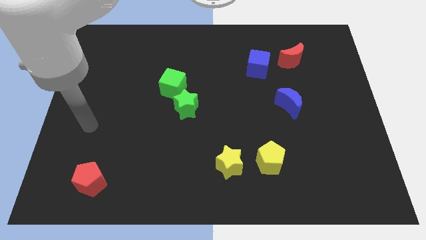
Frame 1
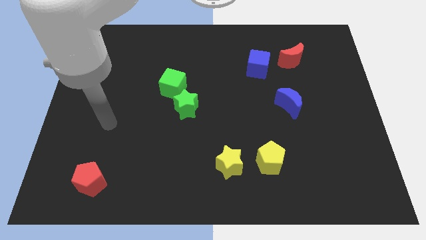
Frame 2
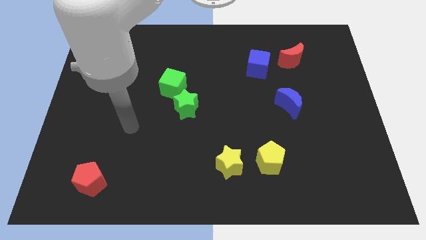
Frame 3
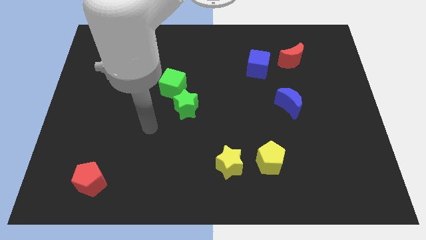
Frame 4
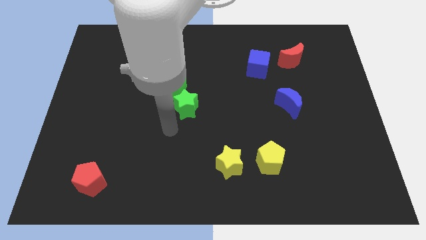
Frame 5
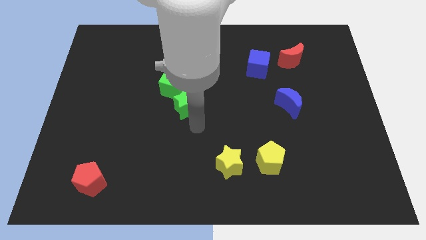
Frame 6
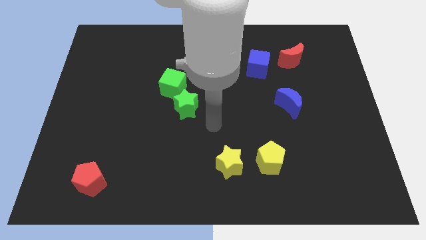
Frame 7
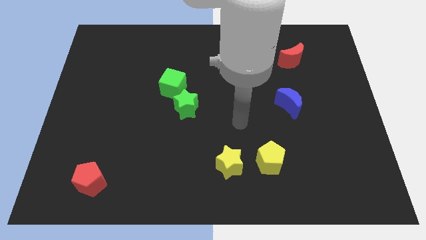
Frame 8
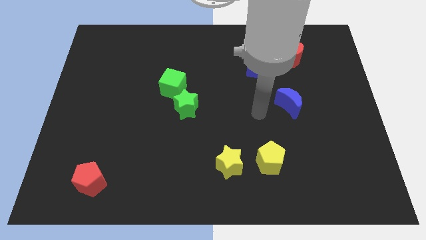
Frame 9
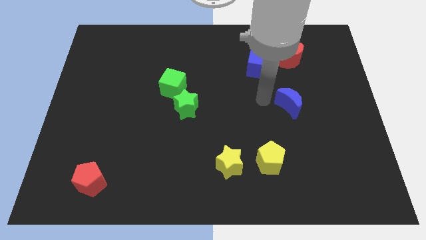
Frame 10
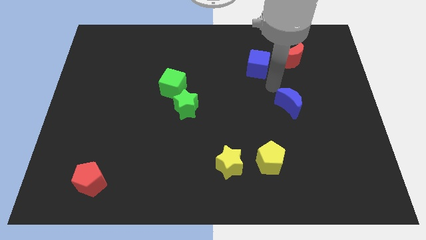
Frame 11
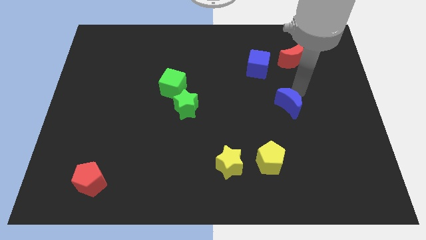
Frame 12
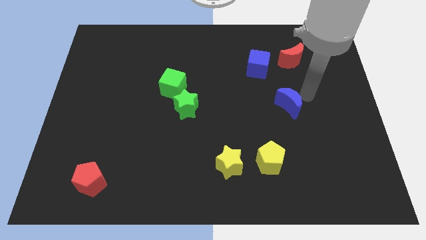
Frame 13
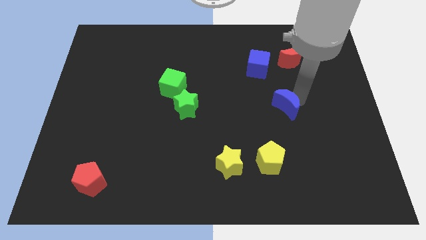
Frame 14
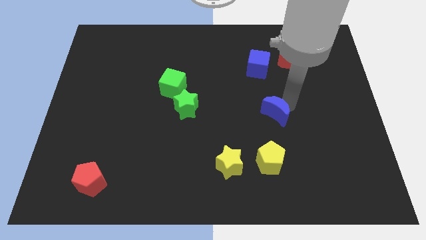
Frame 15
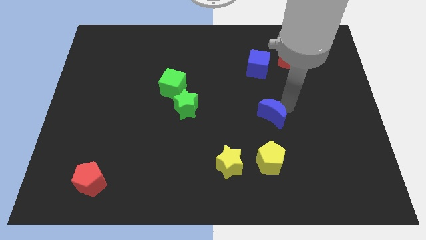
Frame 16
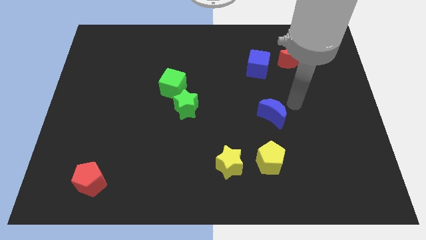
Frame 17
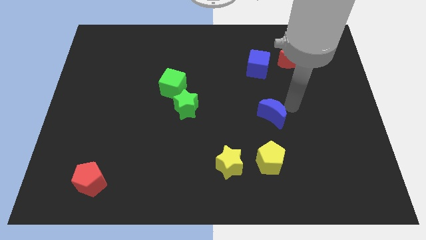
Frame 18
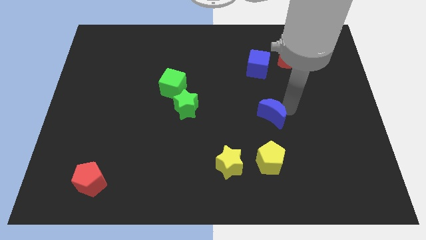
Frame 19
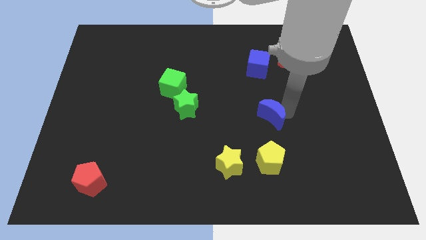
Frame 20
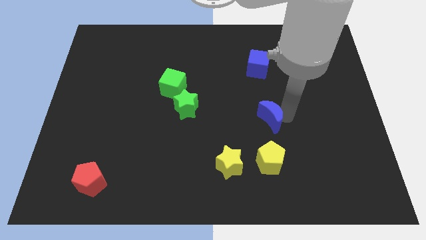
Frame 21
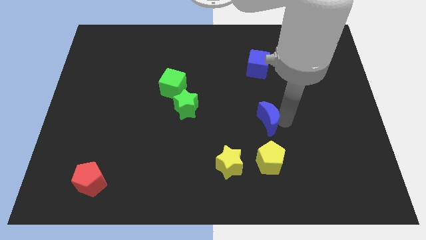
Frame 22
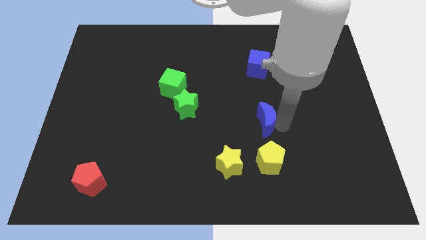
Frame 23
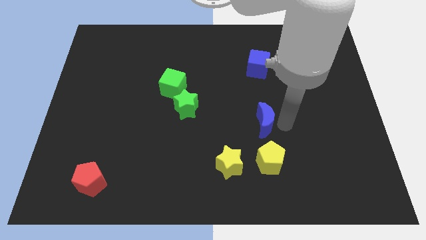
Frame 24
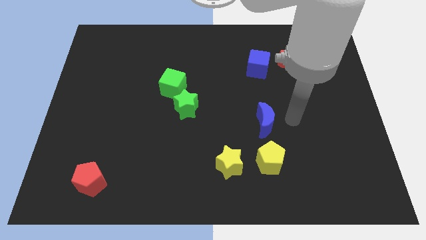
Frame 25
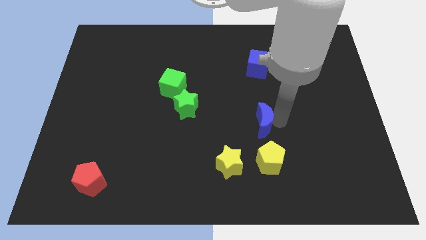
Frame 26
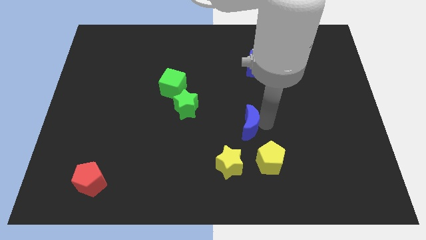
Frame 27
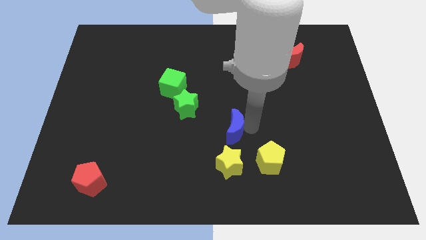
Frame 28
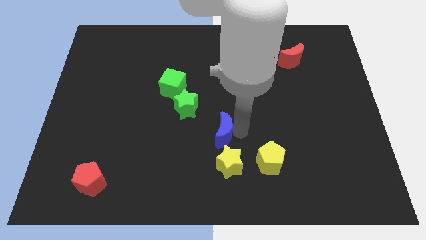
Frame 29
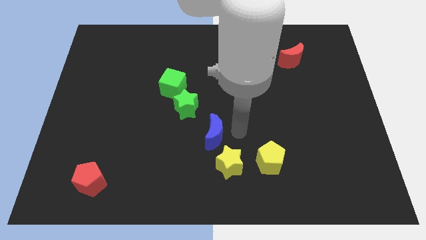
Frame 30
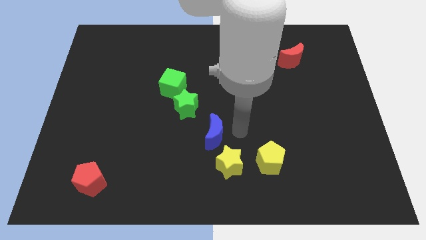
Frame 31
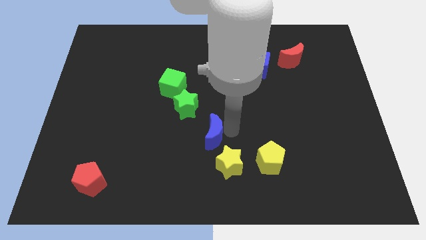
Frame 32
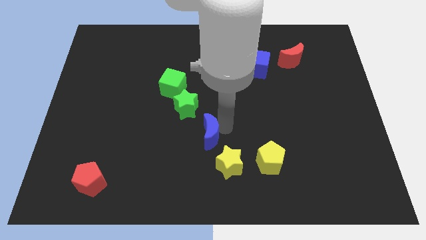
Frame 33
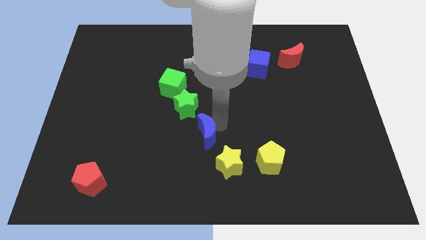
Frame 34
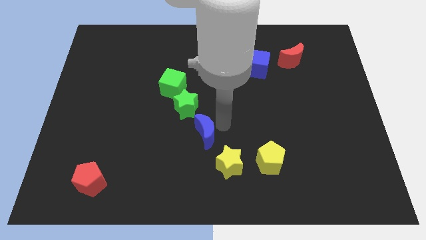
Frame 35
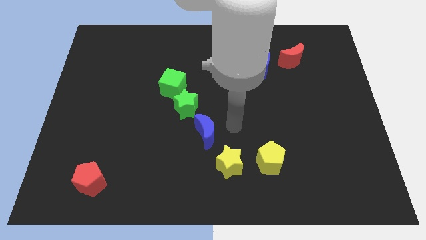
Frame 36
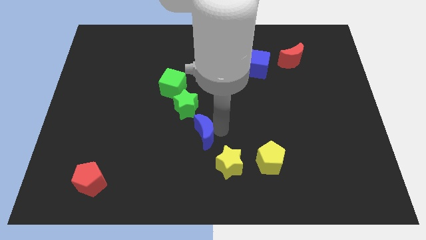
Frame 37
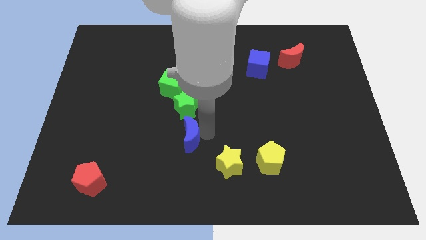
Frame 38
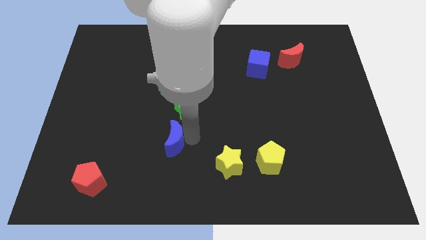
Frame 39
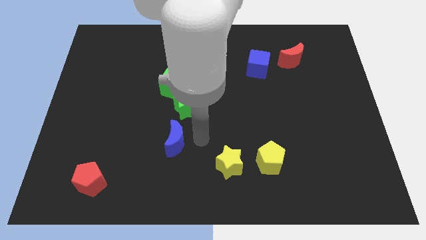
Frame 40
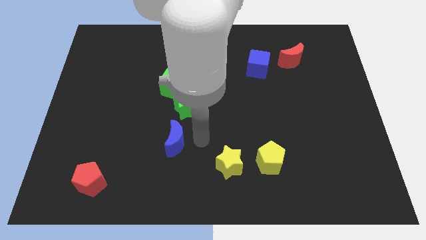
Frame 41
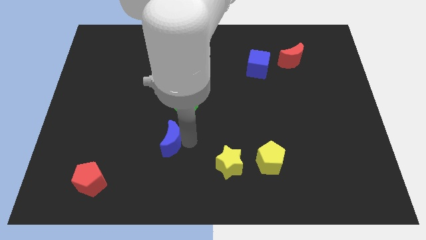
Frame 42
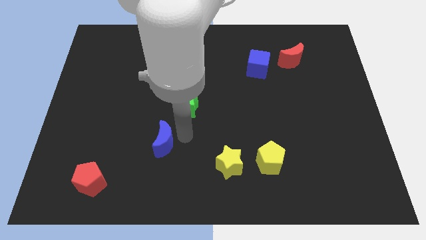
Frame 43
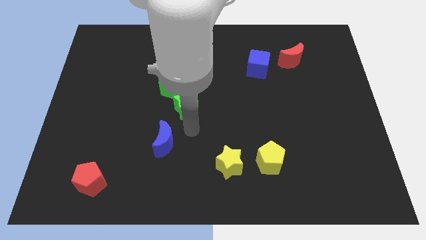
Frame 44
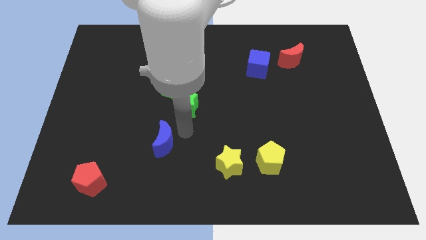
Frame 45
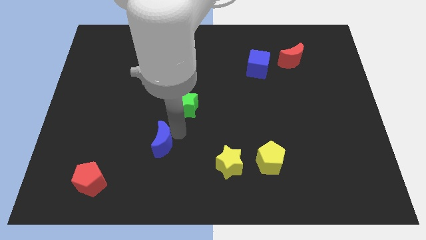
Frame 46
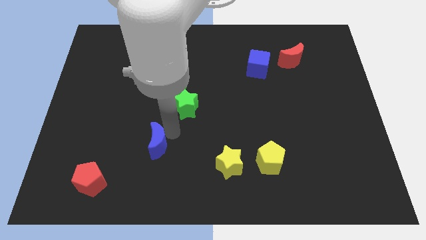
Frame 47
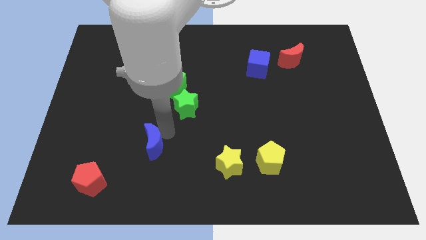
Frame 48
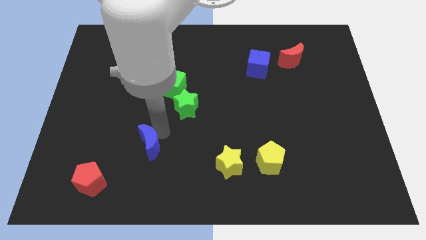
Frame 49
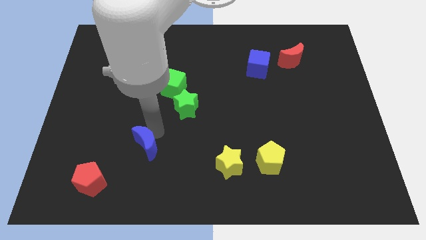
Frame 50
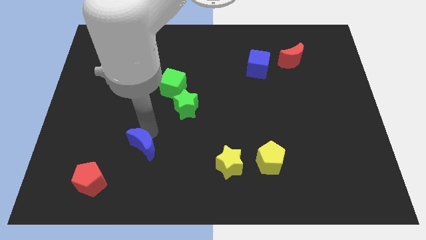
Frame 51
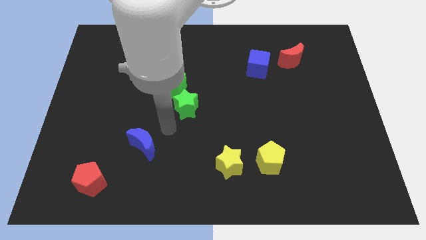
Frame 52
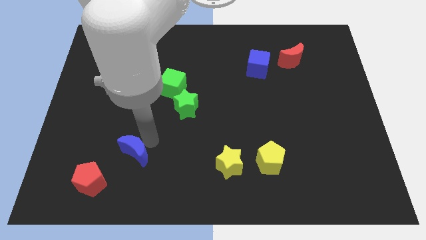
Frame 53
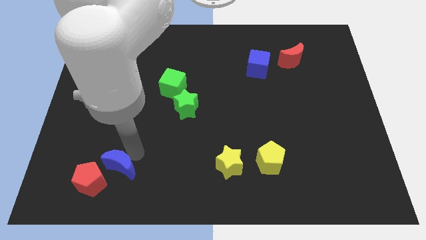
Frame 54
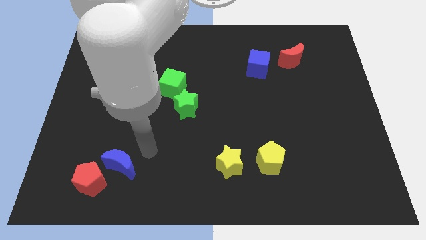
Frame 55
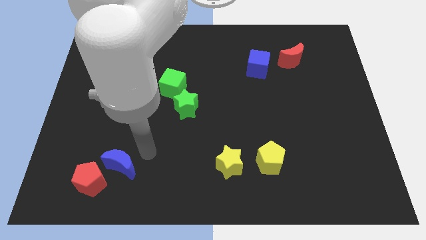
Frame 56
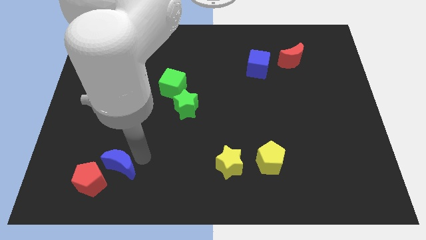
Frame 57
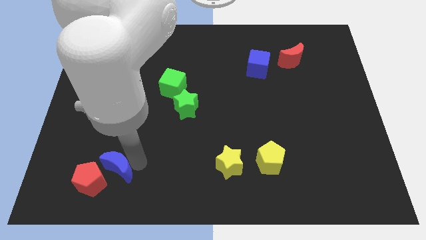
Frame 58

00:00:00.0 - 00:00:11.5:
put the blue moon towards the red pentagon

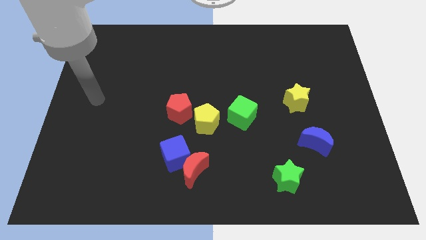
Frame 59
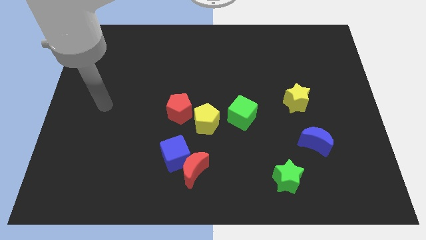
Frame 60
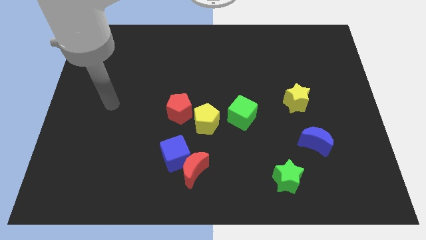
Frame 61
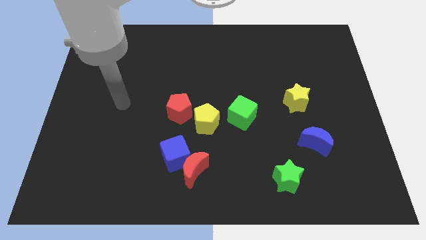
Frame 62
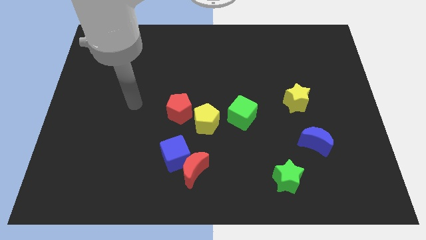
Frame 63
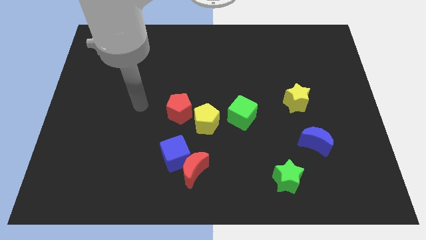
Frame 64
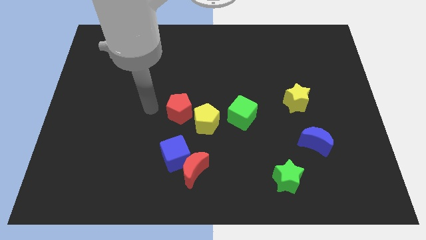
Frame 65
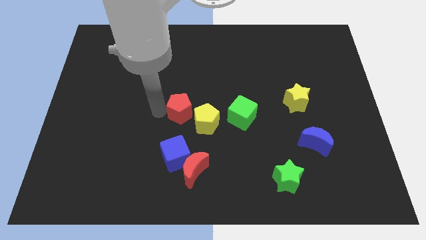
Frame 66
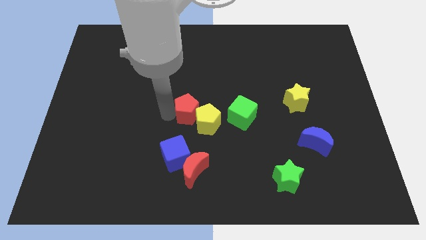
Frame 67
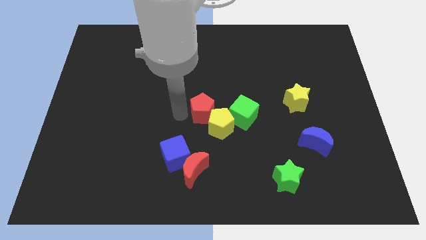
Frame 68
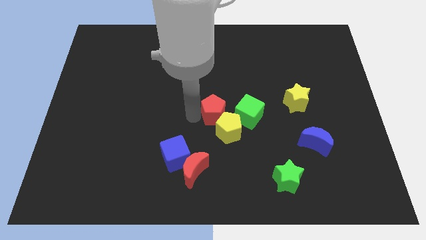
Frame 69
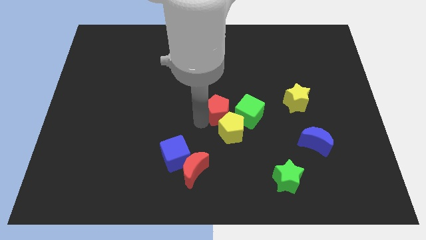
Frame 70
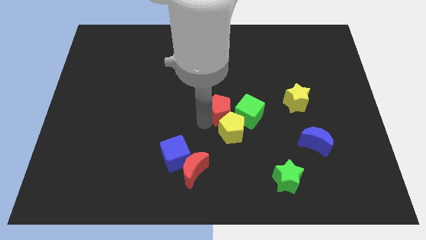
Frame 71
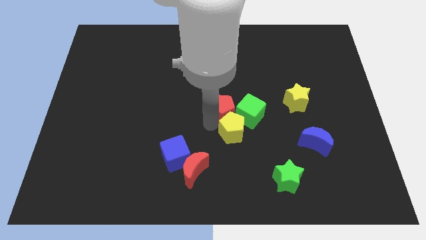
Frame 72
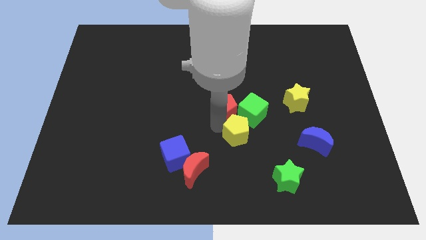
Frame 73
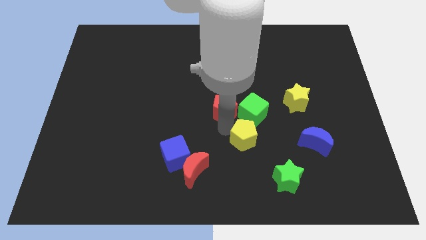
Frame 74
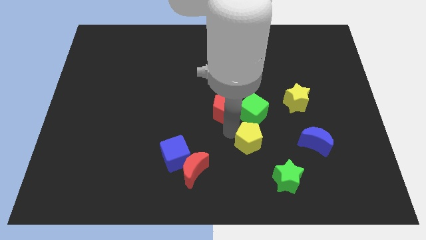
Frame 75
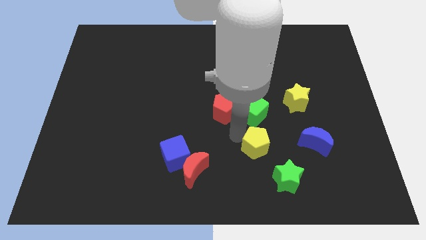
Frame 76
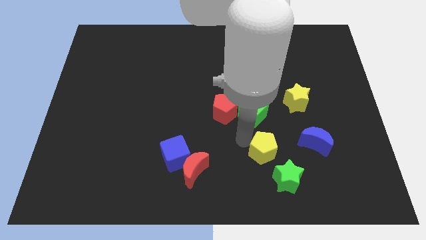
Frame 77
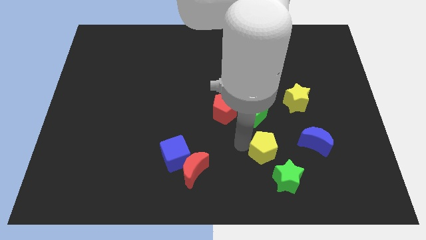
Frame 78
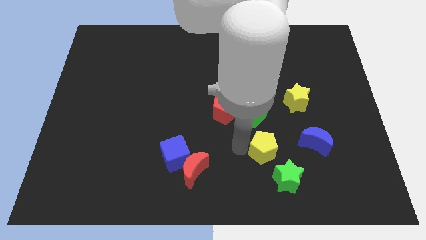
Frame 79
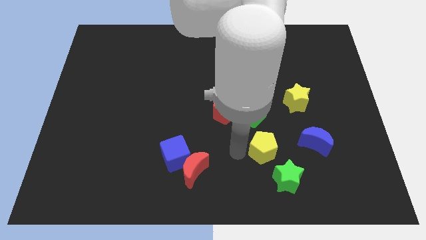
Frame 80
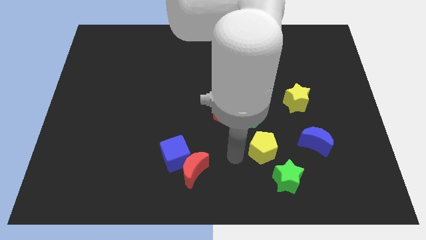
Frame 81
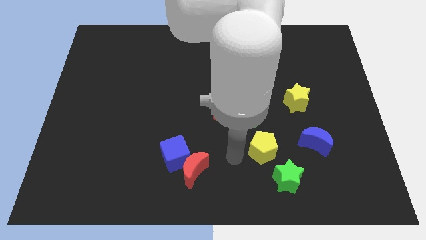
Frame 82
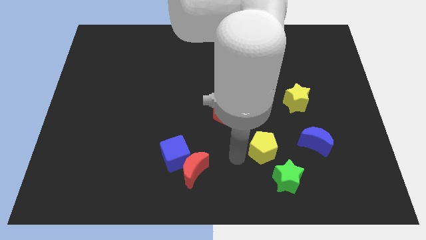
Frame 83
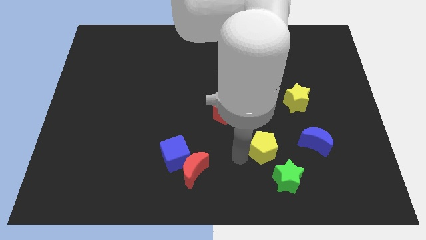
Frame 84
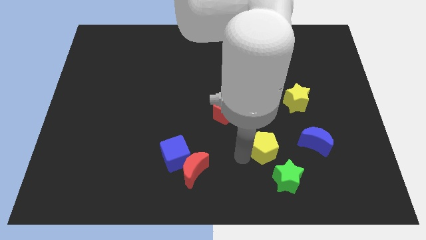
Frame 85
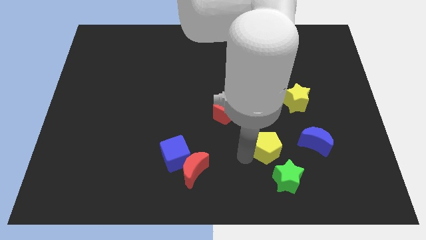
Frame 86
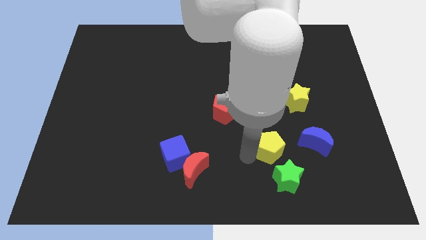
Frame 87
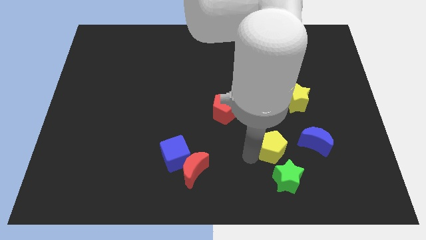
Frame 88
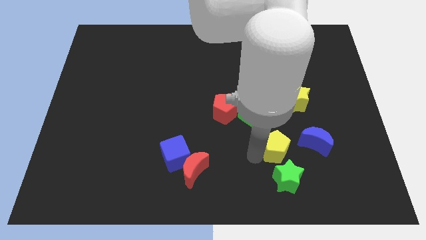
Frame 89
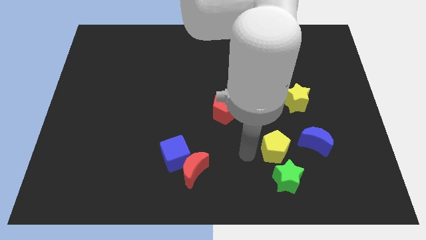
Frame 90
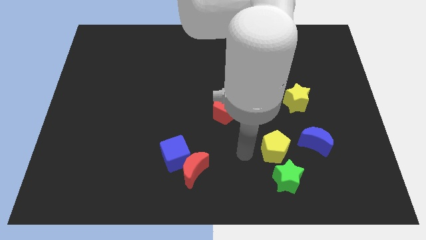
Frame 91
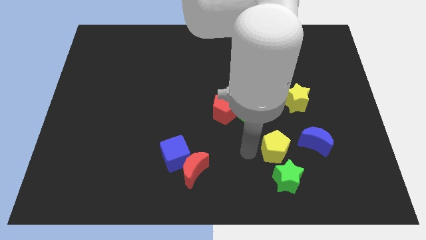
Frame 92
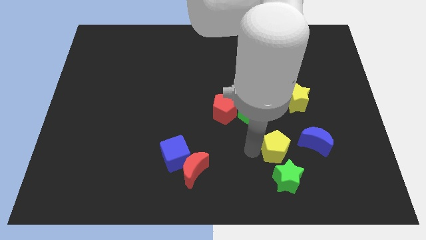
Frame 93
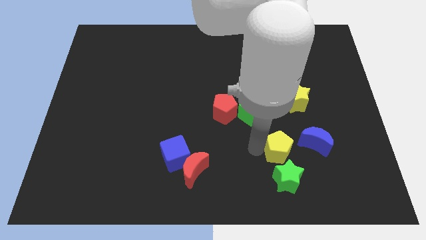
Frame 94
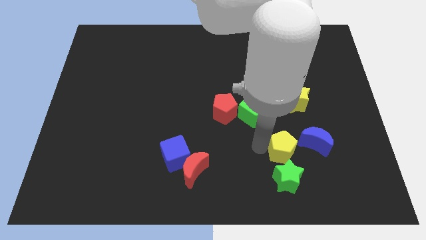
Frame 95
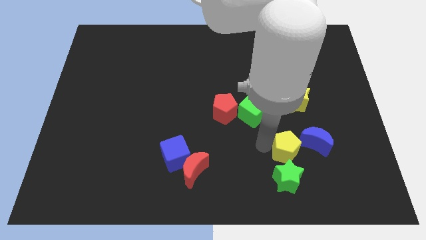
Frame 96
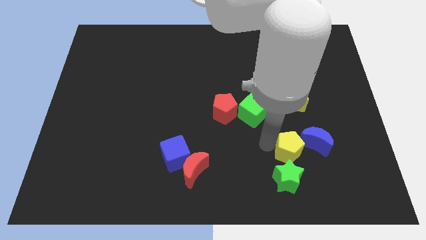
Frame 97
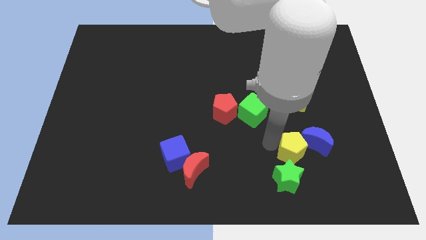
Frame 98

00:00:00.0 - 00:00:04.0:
slide the yellow pentagon next to the blue moon
